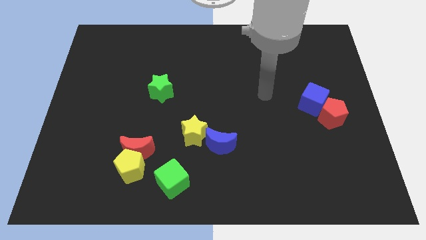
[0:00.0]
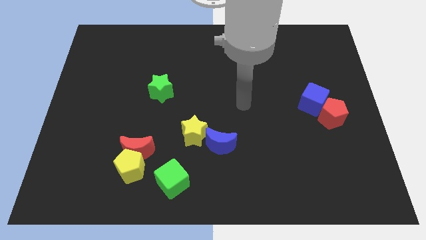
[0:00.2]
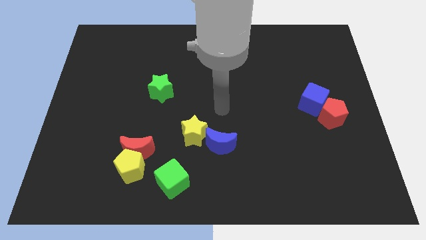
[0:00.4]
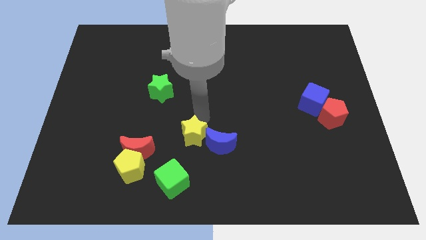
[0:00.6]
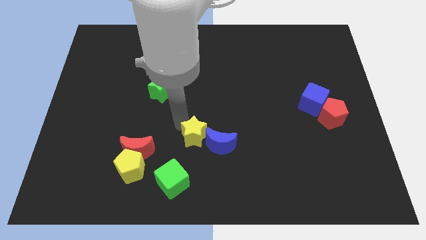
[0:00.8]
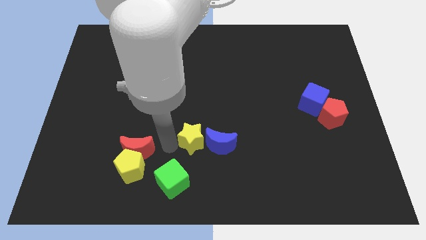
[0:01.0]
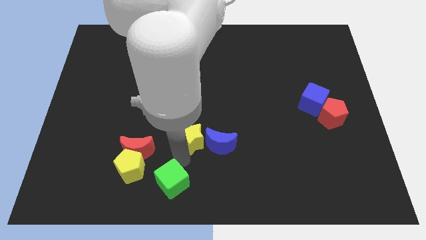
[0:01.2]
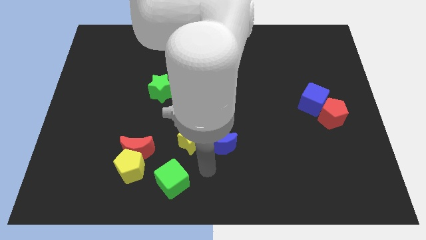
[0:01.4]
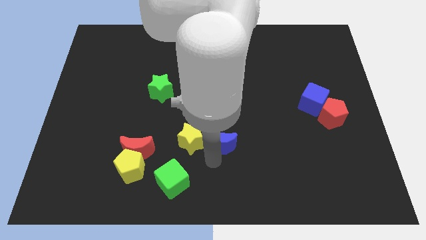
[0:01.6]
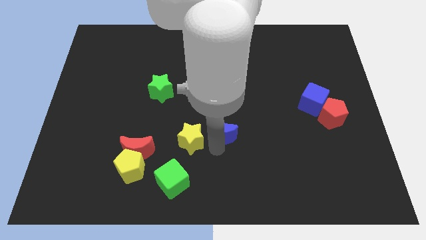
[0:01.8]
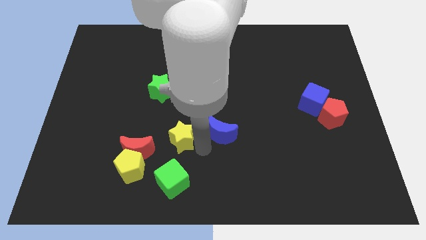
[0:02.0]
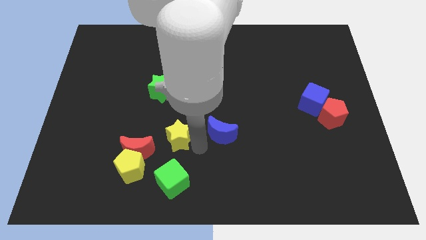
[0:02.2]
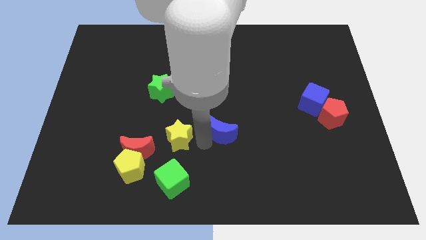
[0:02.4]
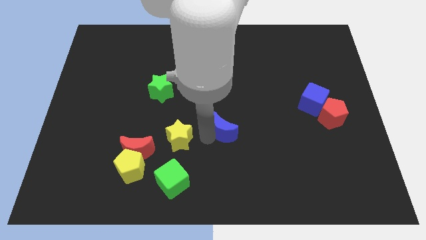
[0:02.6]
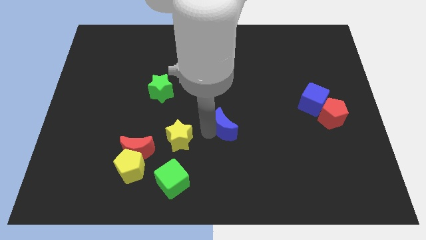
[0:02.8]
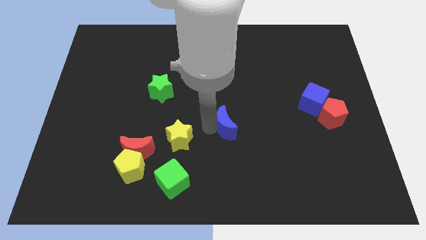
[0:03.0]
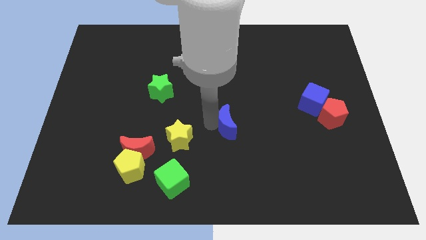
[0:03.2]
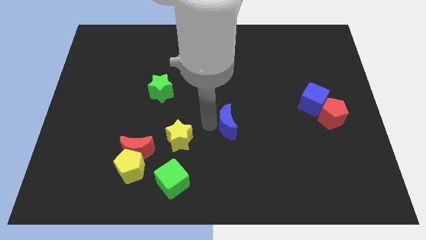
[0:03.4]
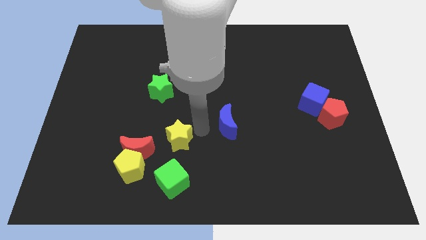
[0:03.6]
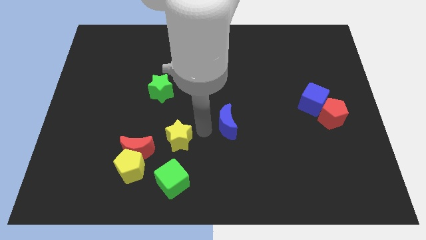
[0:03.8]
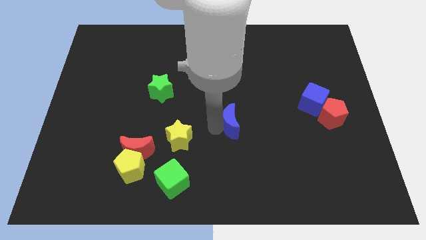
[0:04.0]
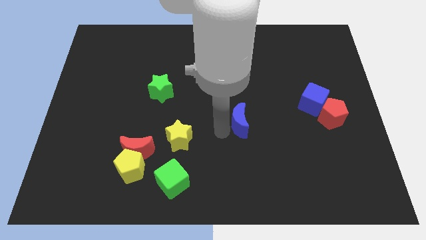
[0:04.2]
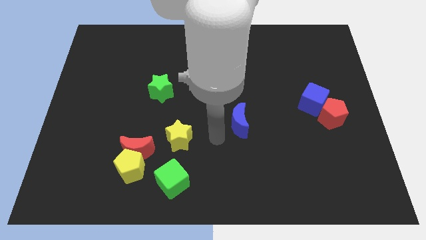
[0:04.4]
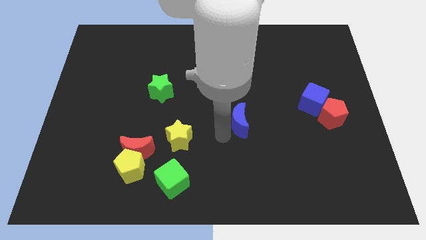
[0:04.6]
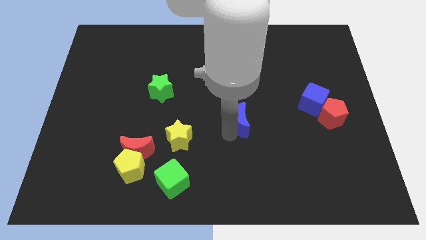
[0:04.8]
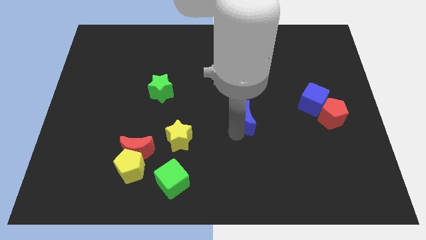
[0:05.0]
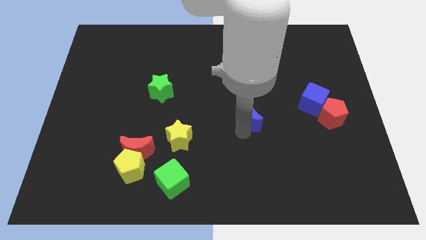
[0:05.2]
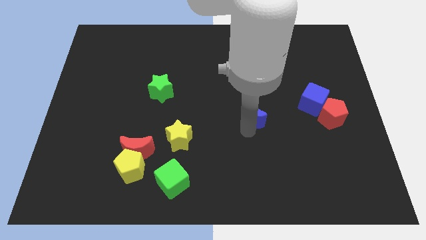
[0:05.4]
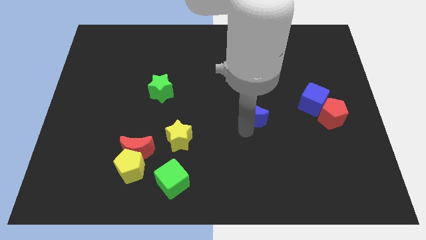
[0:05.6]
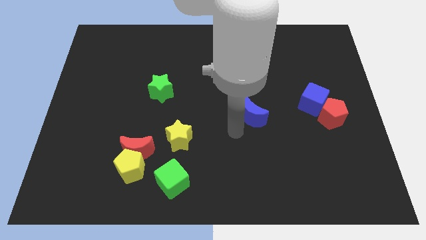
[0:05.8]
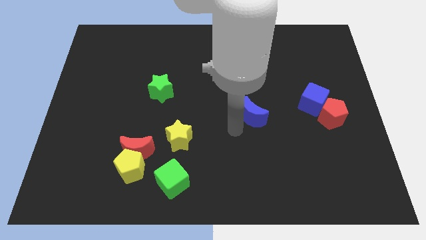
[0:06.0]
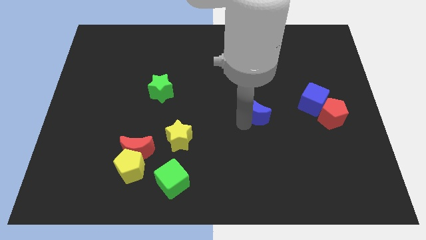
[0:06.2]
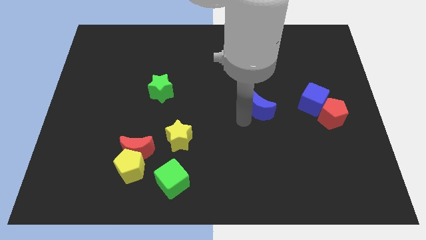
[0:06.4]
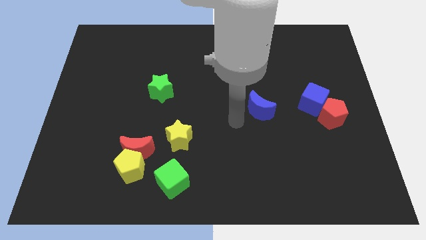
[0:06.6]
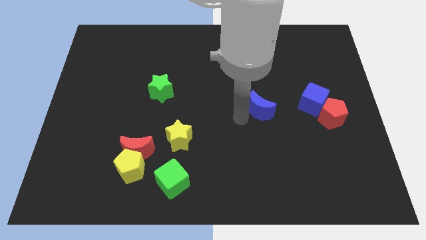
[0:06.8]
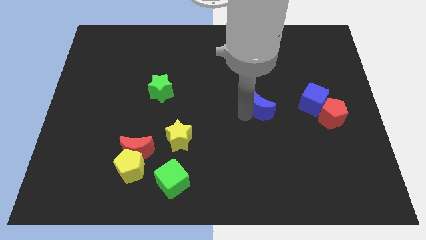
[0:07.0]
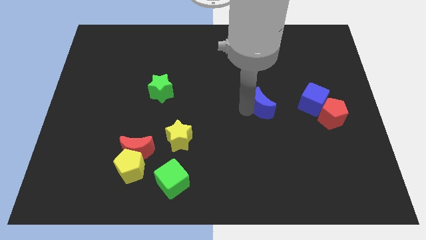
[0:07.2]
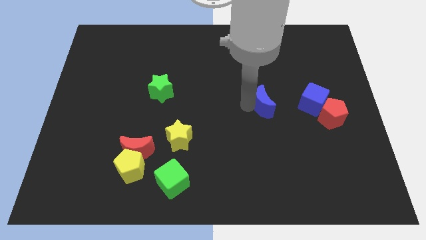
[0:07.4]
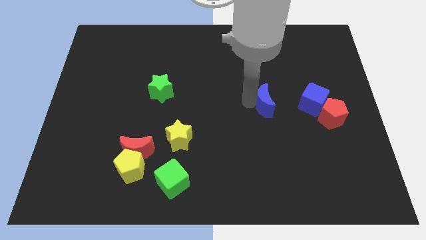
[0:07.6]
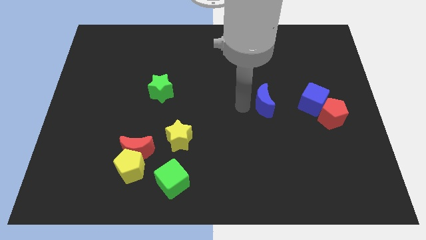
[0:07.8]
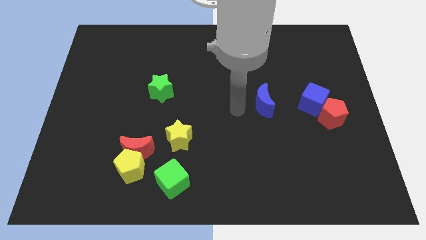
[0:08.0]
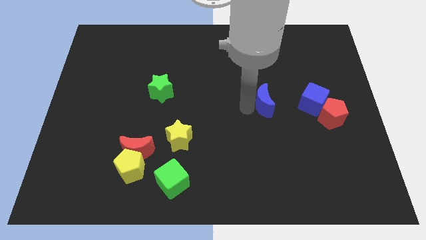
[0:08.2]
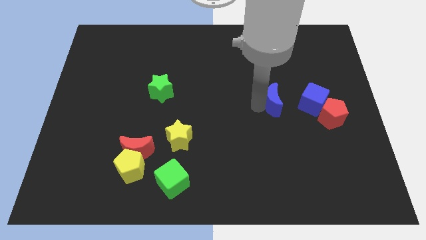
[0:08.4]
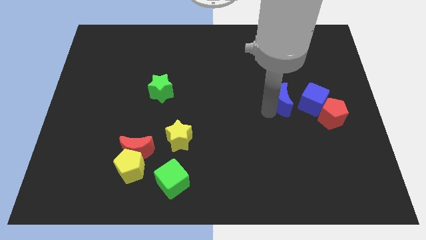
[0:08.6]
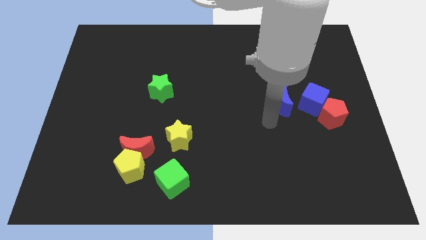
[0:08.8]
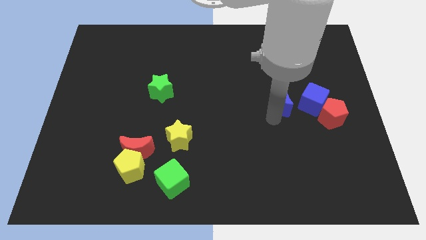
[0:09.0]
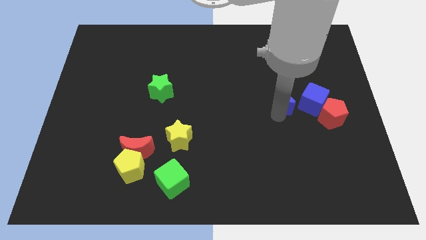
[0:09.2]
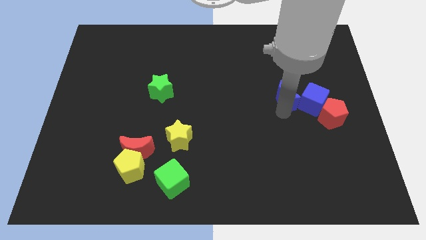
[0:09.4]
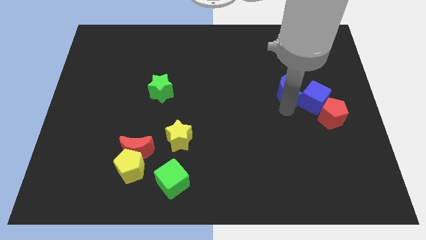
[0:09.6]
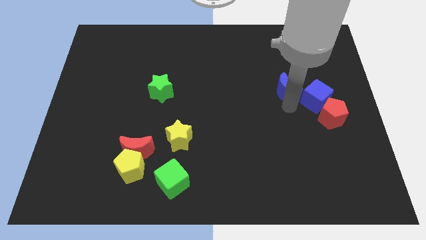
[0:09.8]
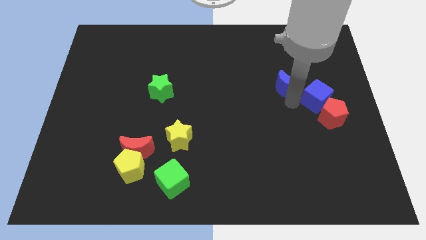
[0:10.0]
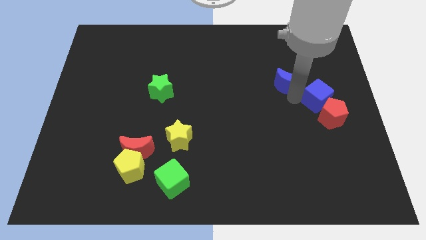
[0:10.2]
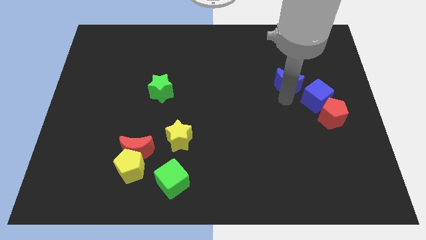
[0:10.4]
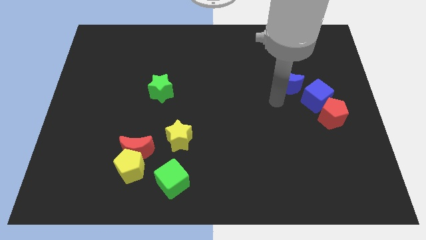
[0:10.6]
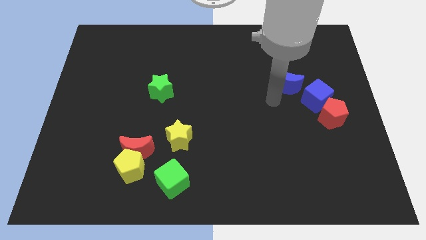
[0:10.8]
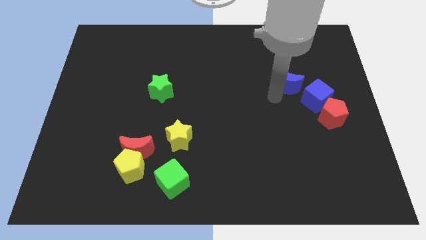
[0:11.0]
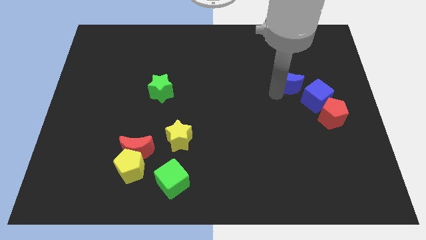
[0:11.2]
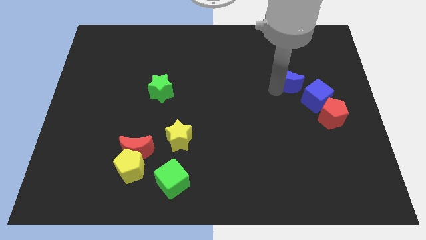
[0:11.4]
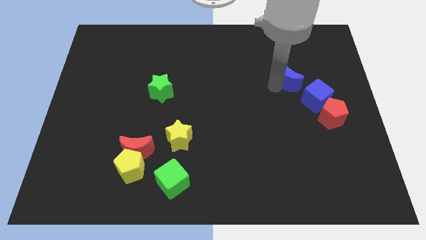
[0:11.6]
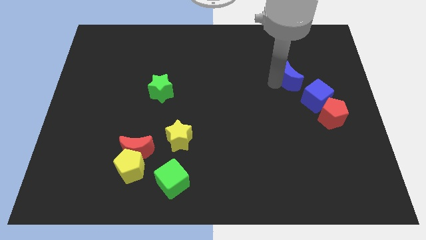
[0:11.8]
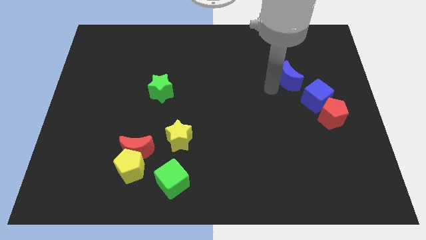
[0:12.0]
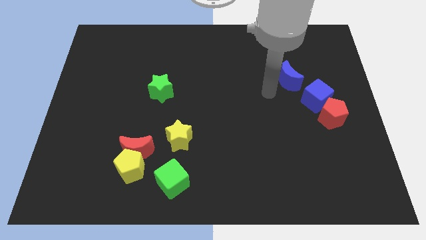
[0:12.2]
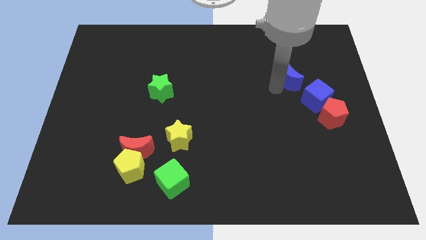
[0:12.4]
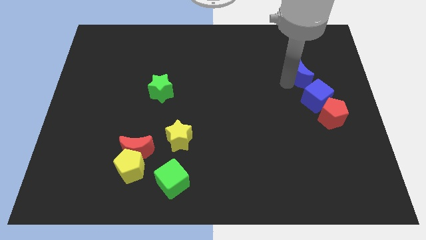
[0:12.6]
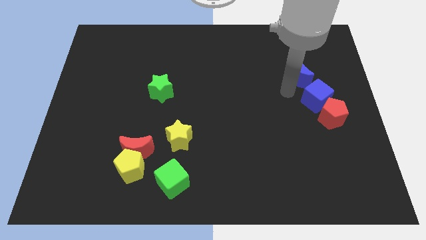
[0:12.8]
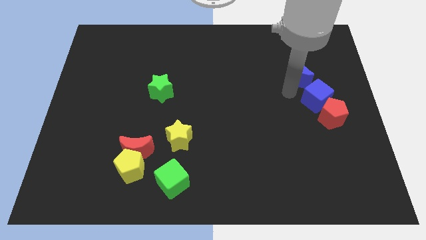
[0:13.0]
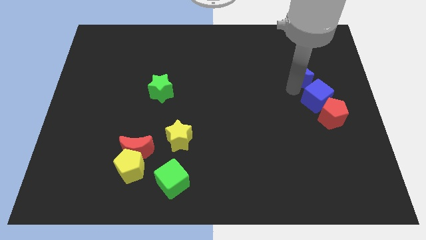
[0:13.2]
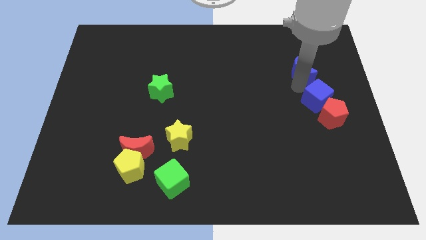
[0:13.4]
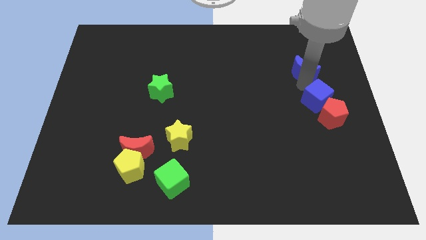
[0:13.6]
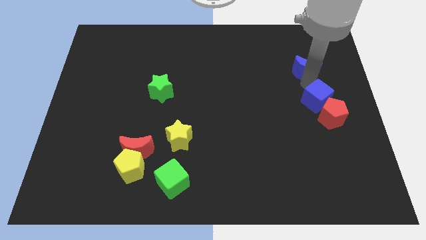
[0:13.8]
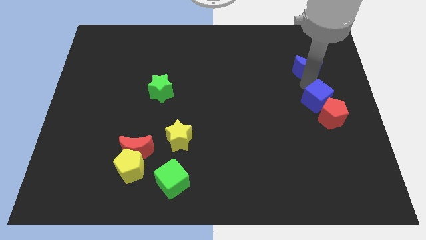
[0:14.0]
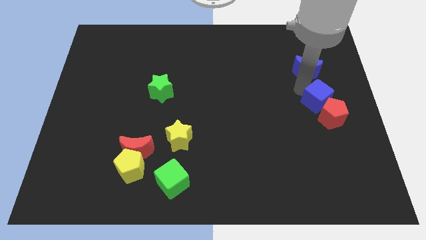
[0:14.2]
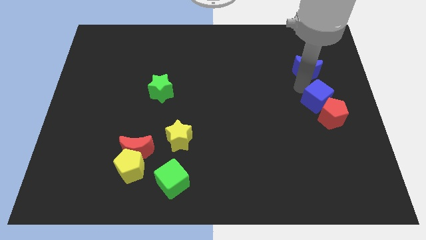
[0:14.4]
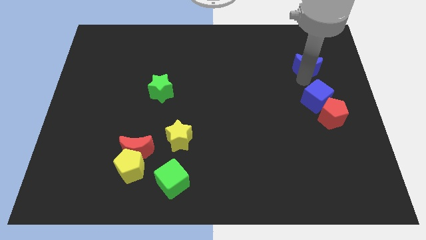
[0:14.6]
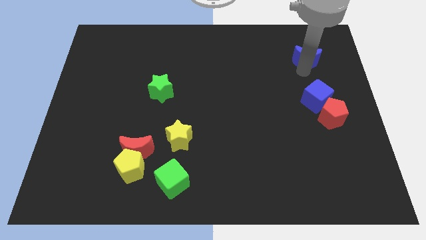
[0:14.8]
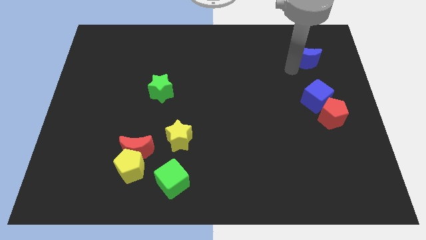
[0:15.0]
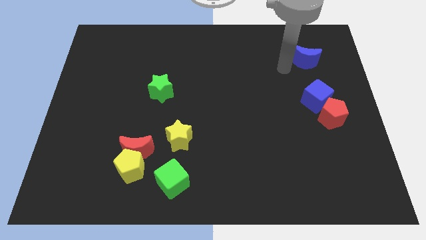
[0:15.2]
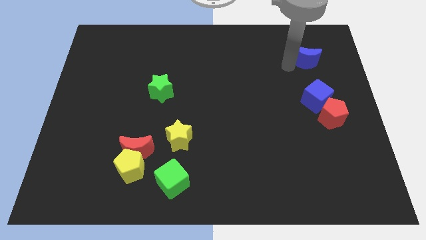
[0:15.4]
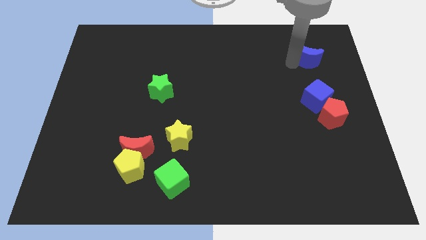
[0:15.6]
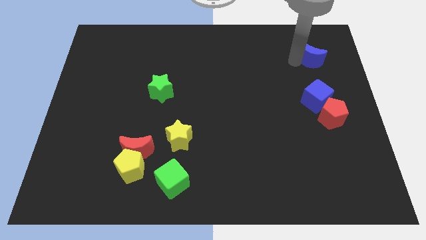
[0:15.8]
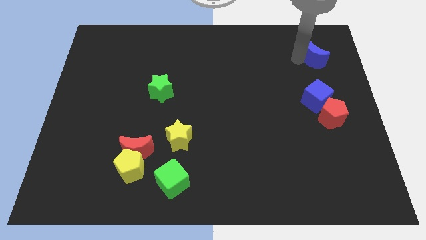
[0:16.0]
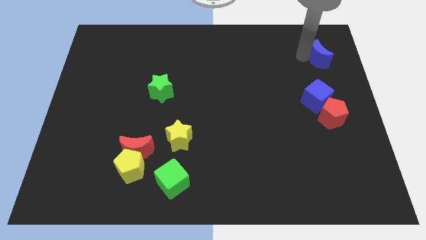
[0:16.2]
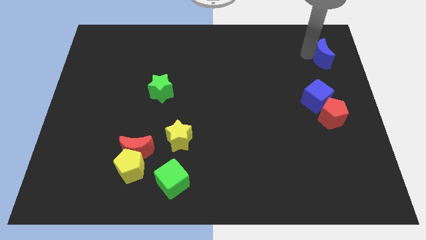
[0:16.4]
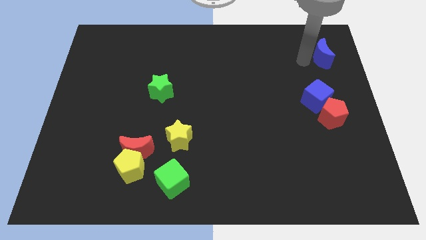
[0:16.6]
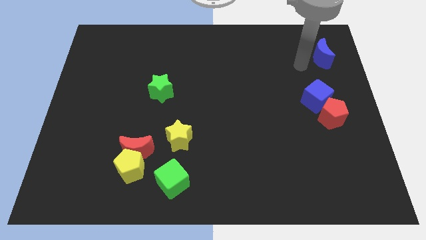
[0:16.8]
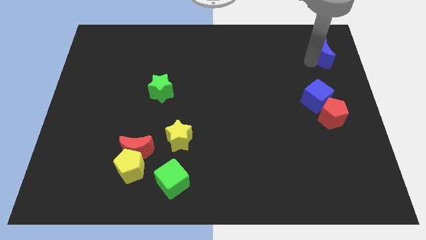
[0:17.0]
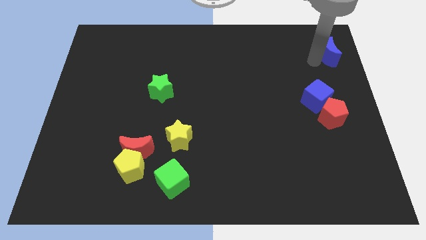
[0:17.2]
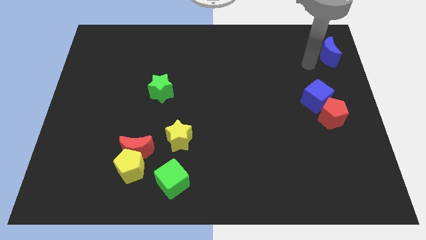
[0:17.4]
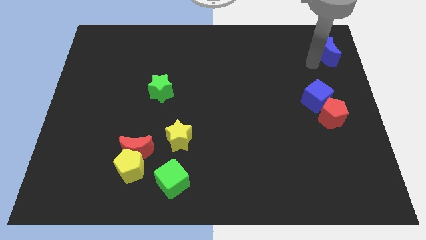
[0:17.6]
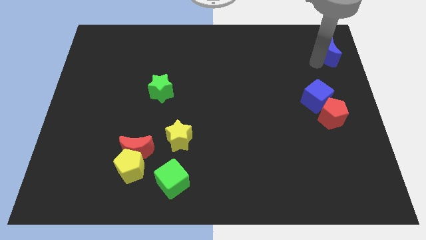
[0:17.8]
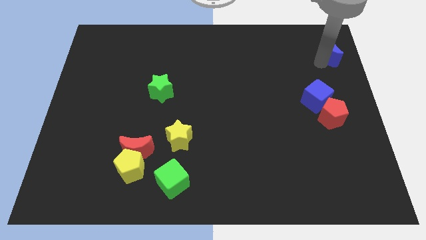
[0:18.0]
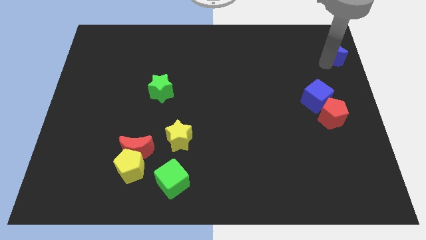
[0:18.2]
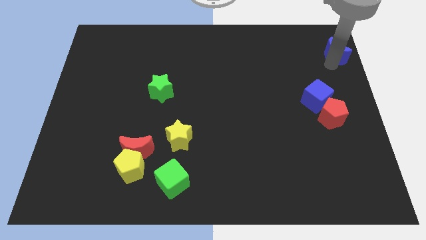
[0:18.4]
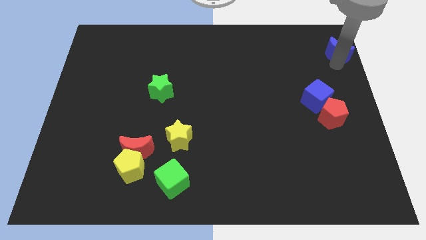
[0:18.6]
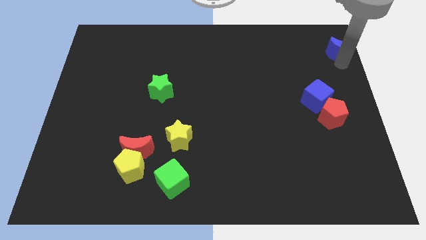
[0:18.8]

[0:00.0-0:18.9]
move the blue moon to the upper right corner
